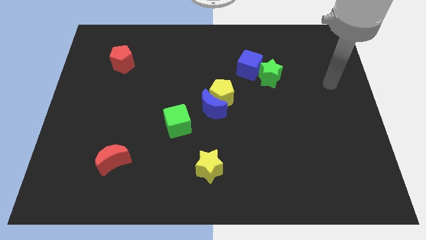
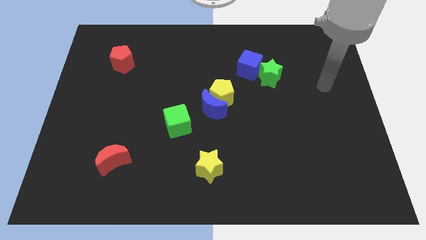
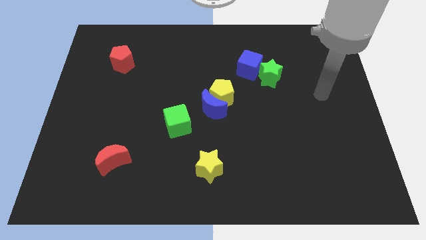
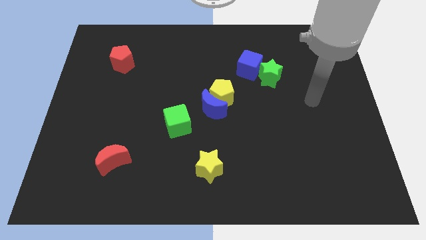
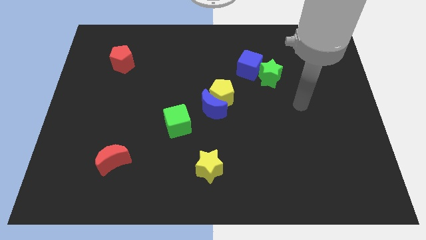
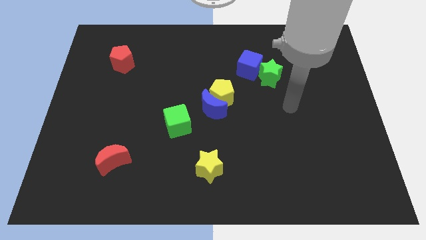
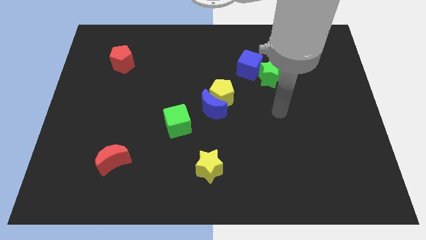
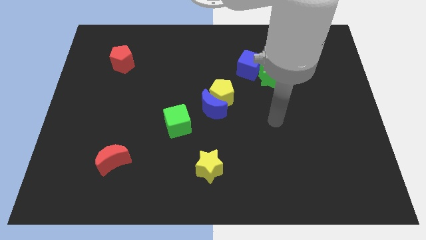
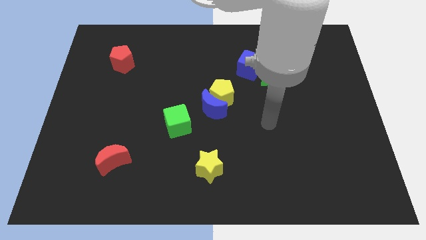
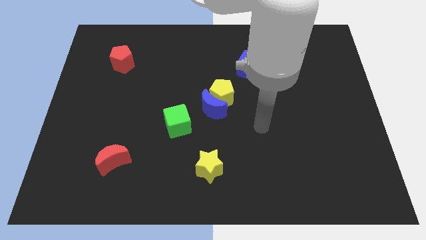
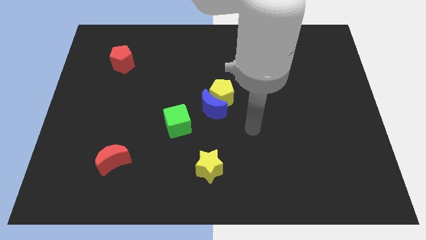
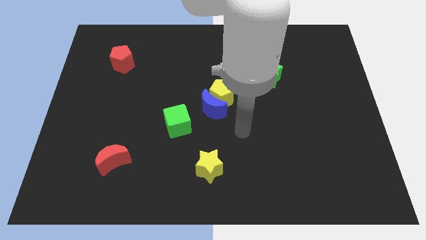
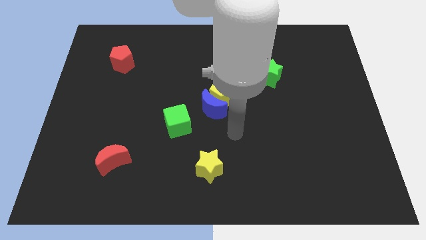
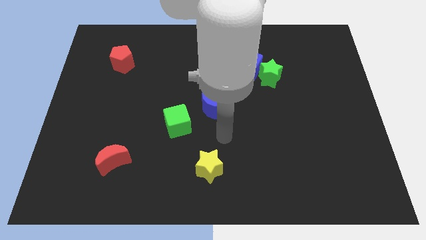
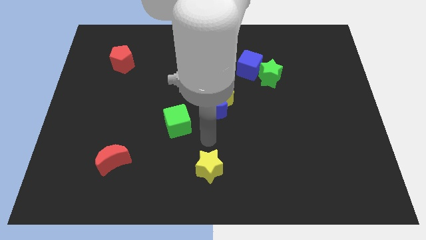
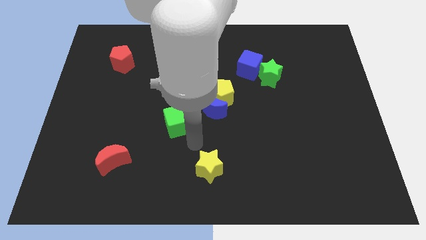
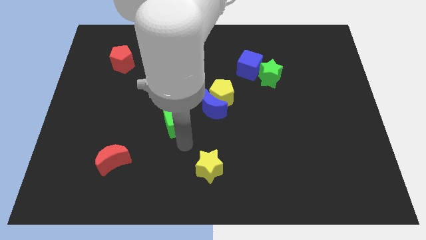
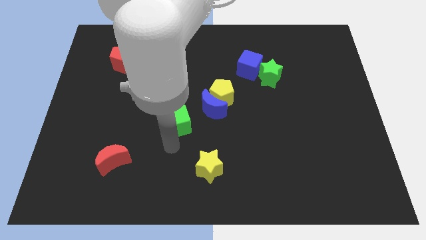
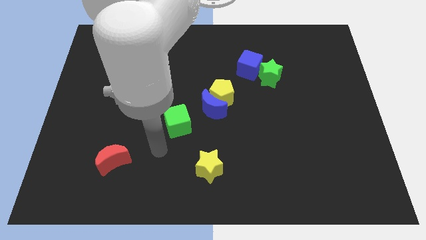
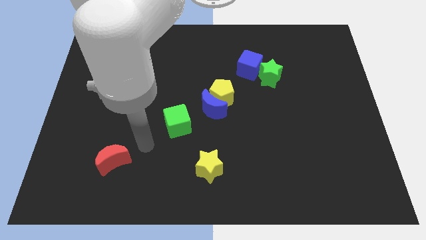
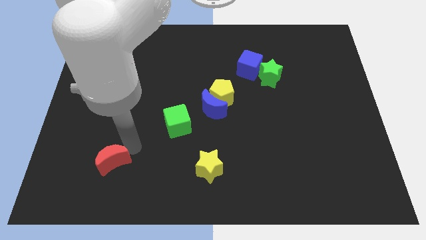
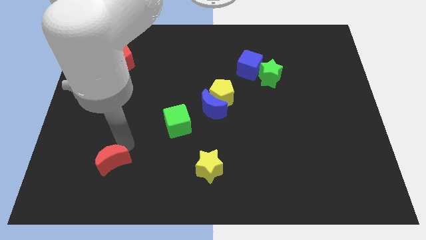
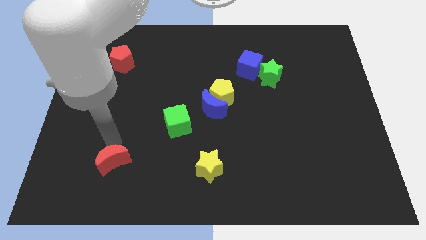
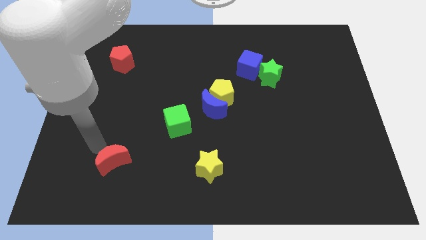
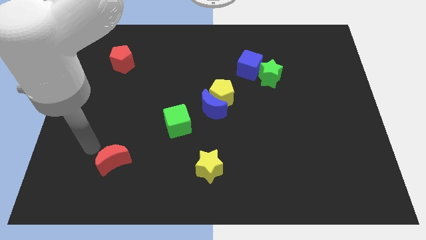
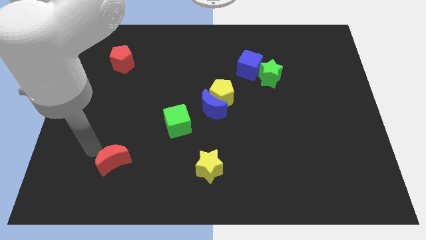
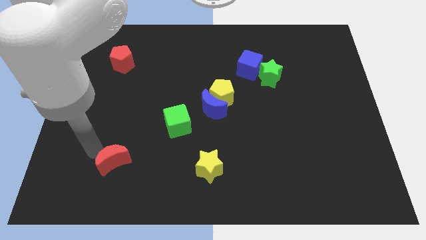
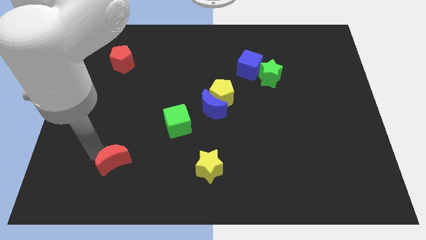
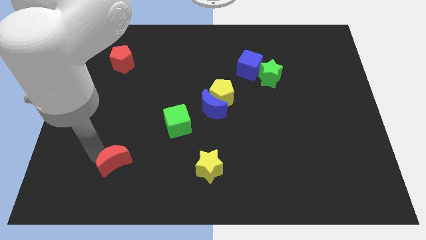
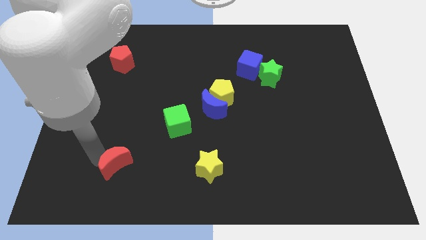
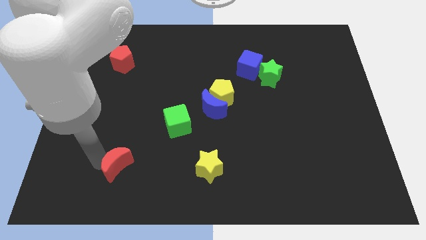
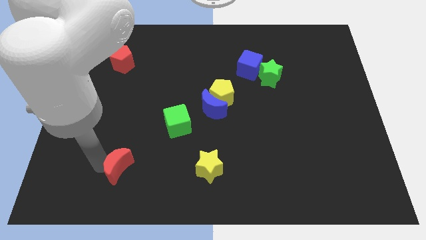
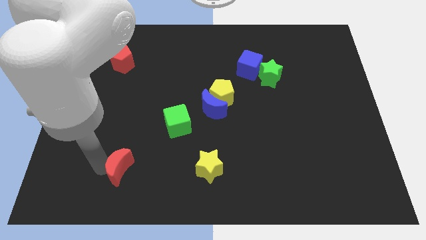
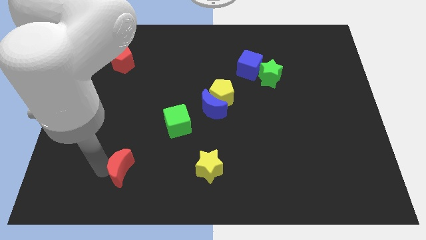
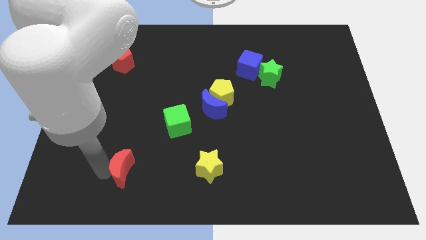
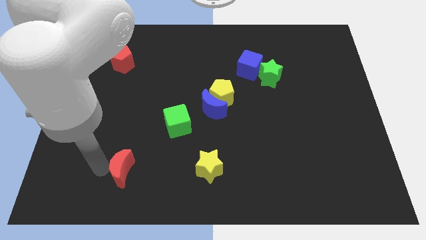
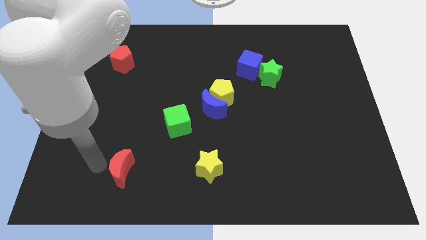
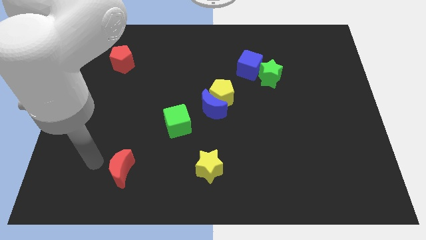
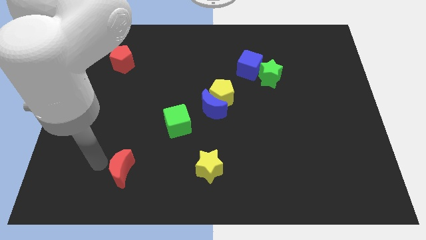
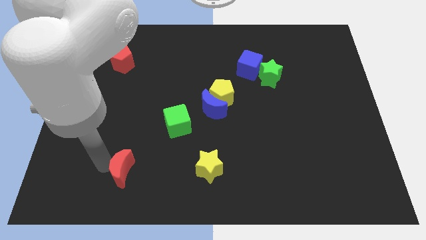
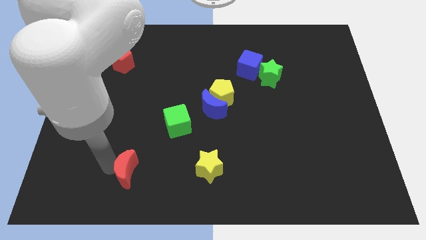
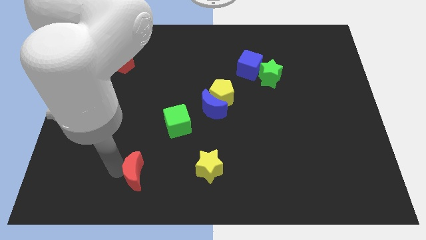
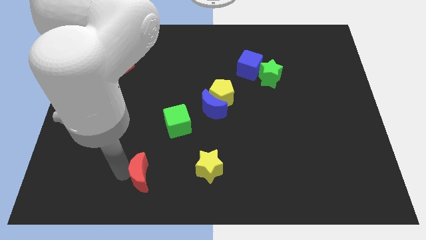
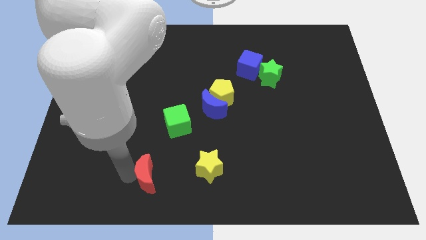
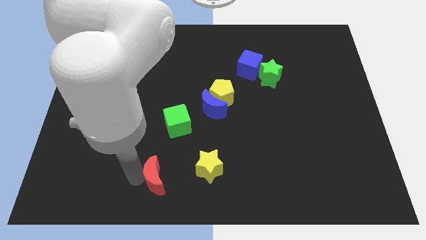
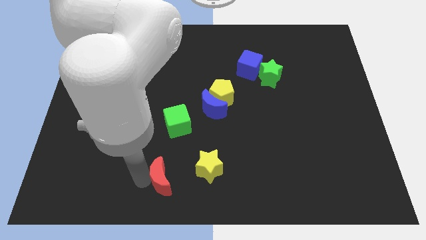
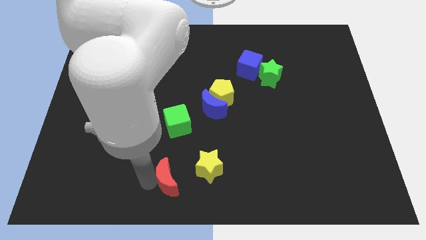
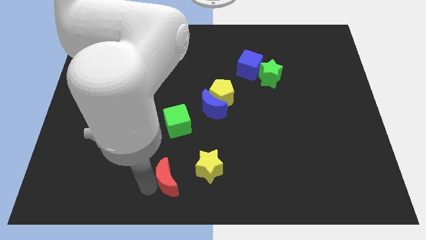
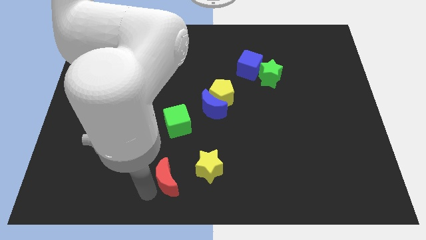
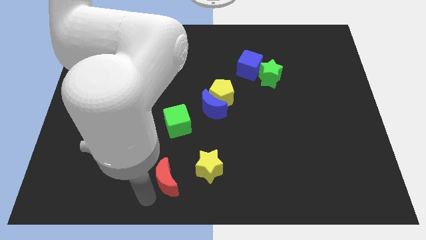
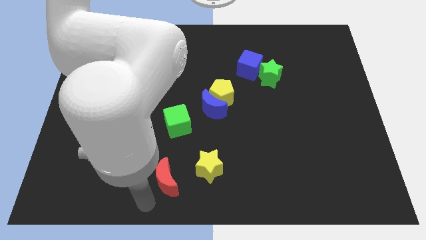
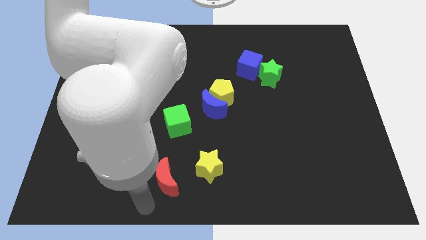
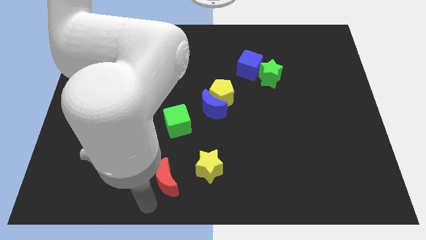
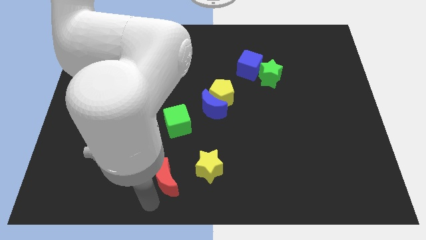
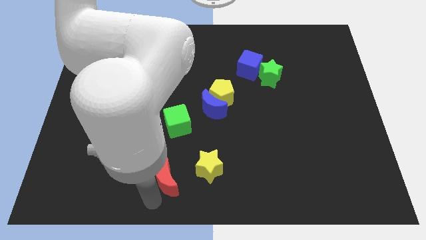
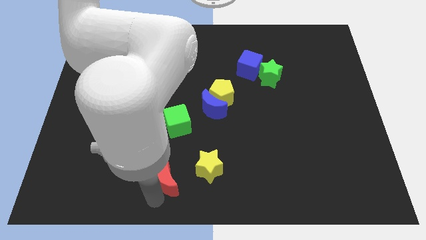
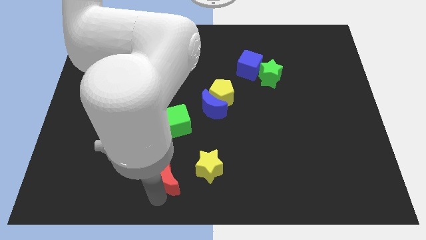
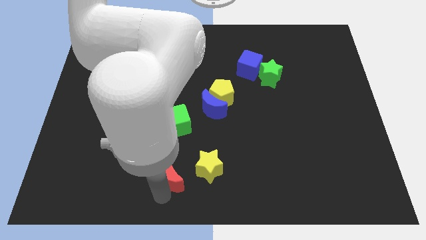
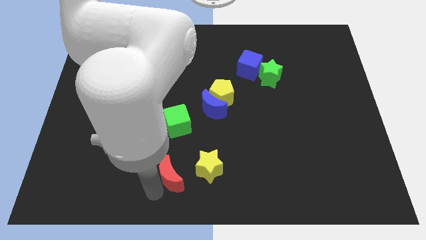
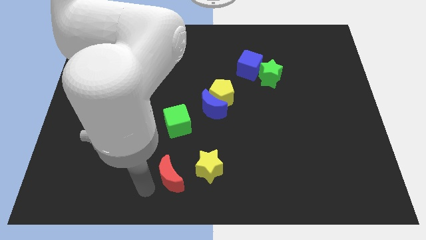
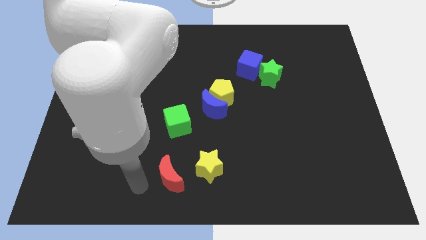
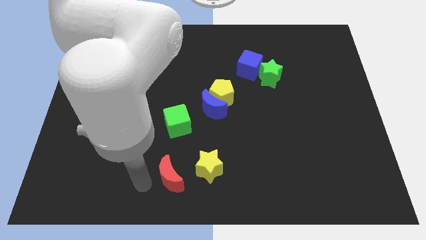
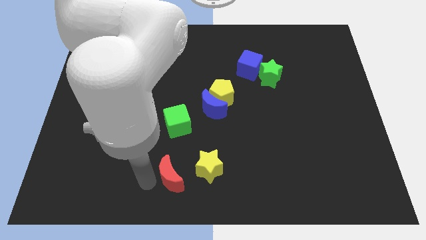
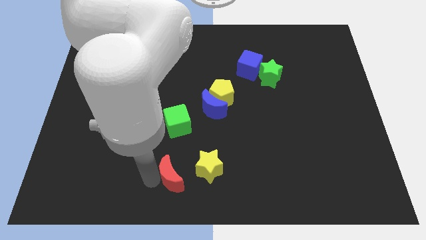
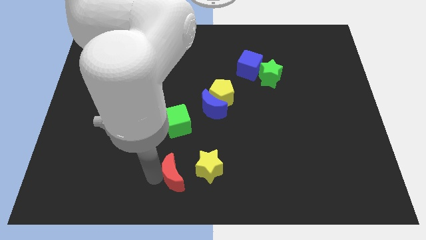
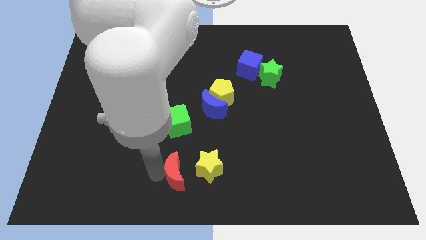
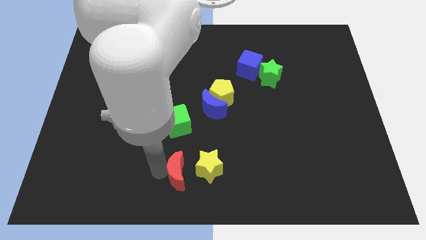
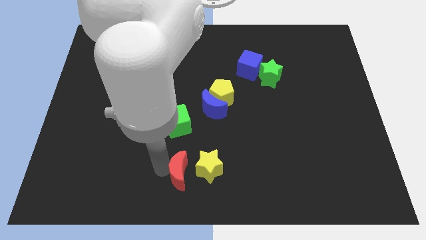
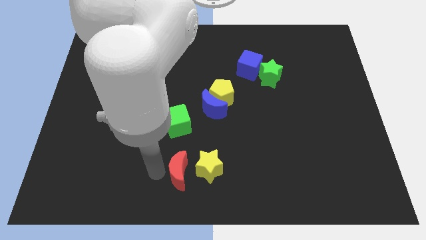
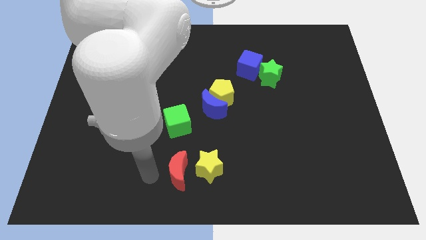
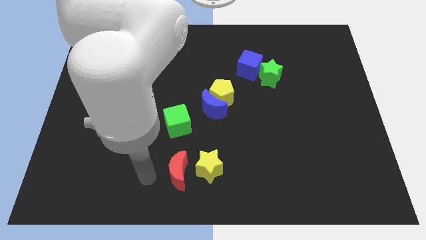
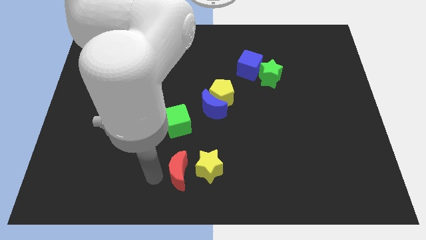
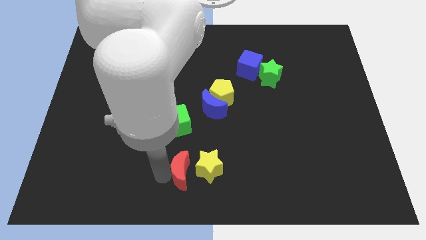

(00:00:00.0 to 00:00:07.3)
put the red moon to the yellow star
